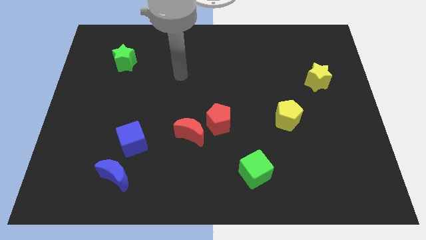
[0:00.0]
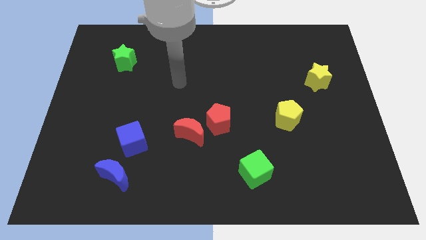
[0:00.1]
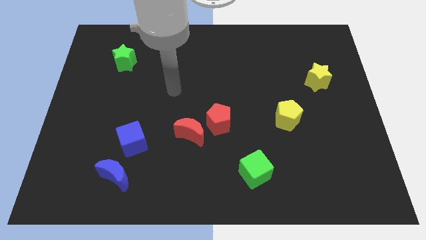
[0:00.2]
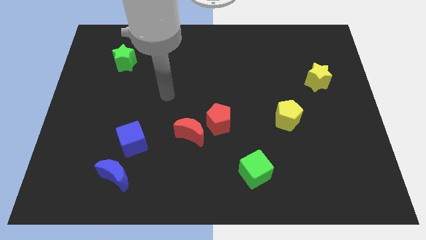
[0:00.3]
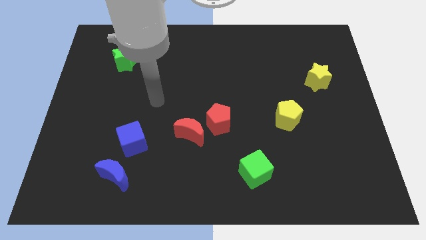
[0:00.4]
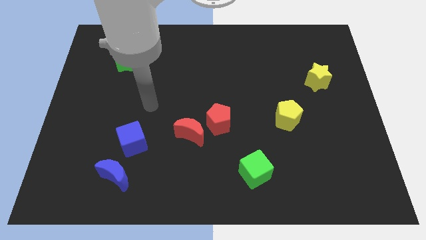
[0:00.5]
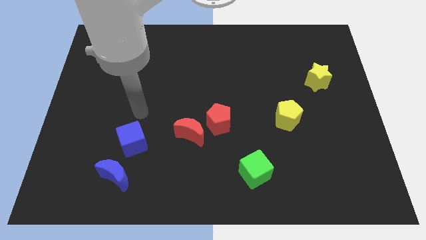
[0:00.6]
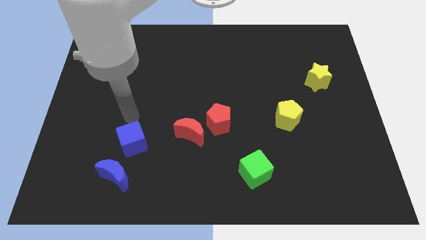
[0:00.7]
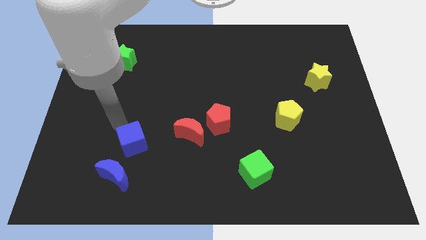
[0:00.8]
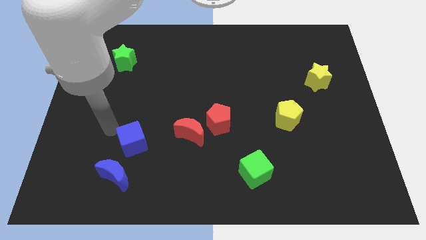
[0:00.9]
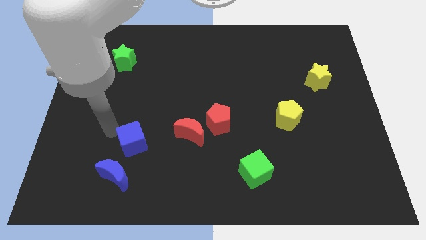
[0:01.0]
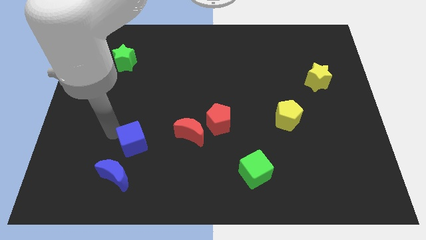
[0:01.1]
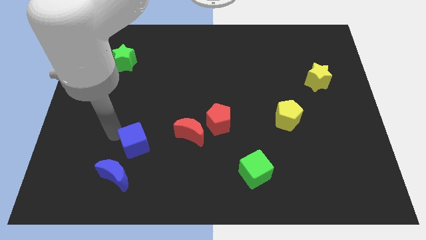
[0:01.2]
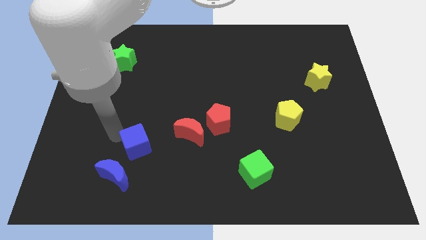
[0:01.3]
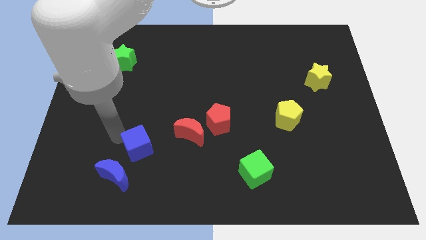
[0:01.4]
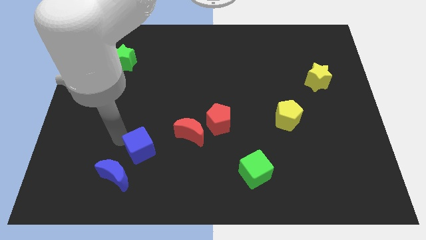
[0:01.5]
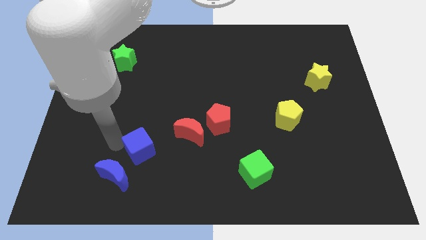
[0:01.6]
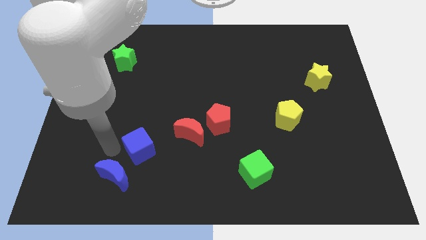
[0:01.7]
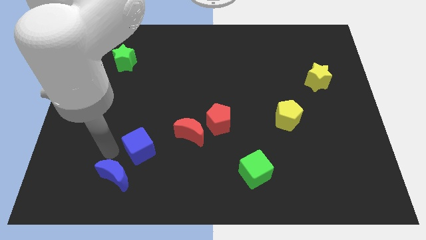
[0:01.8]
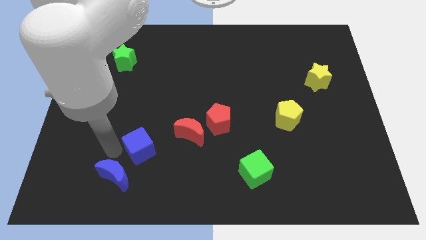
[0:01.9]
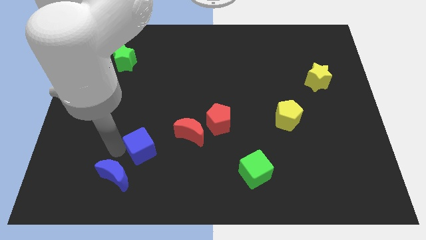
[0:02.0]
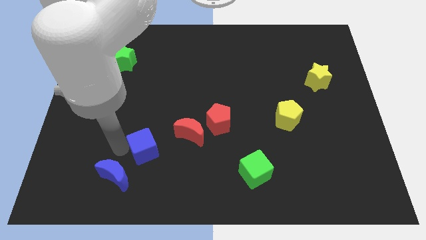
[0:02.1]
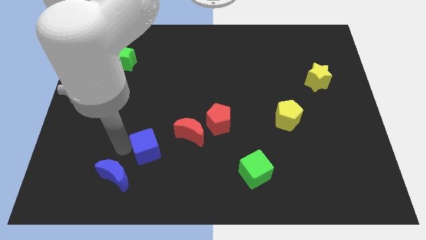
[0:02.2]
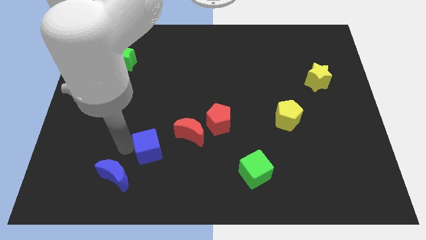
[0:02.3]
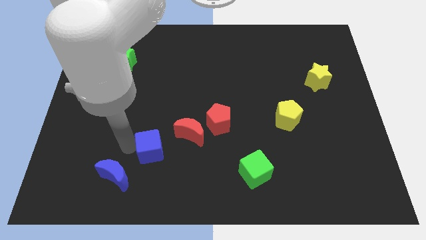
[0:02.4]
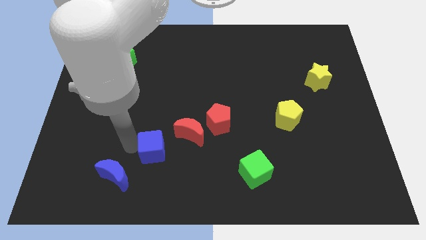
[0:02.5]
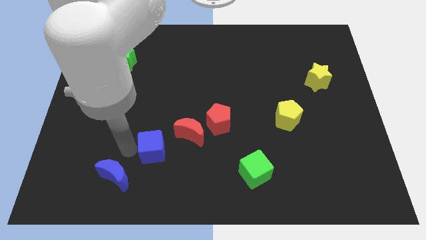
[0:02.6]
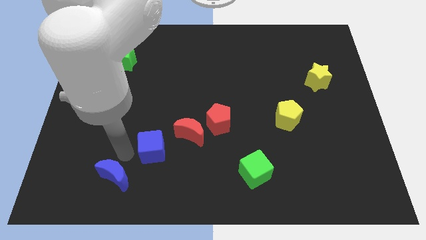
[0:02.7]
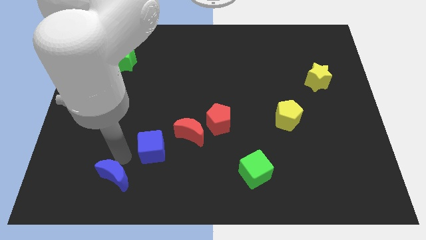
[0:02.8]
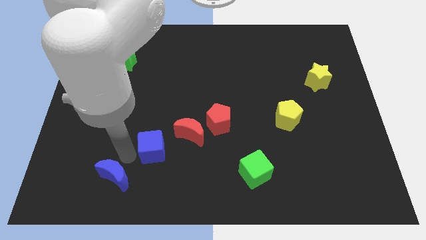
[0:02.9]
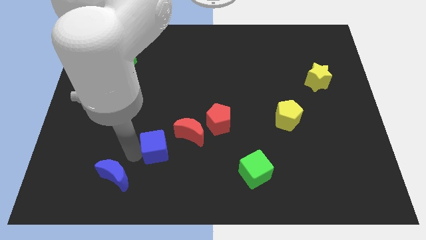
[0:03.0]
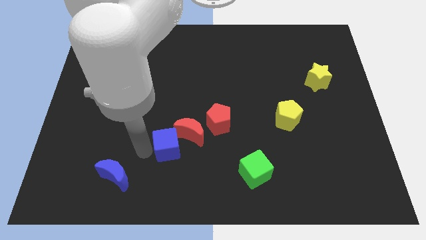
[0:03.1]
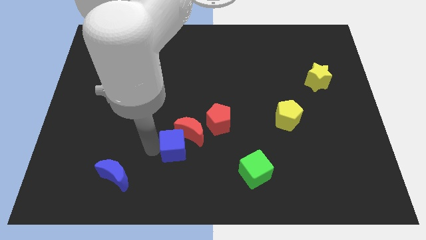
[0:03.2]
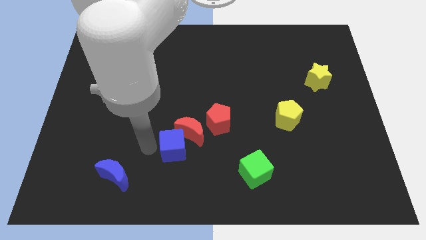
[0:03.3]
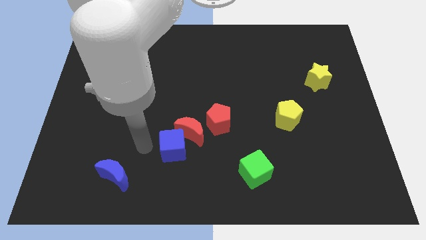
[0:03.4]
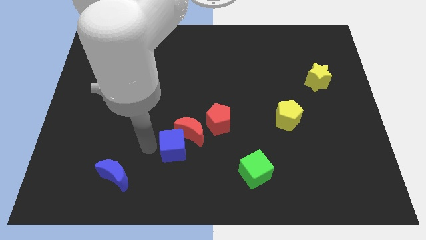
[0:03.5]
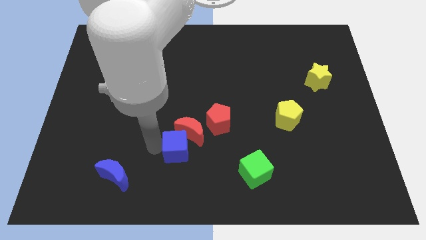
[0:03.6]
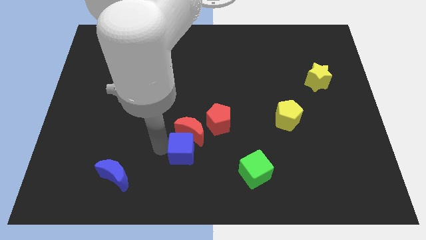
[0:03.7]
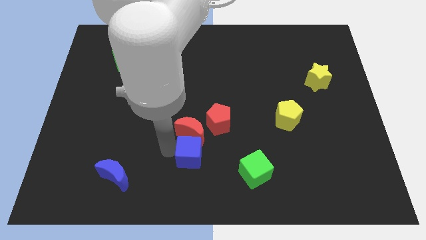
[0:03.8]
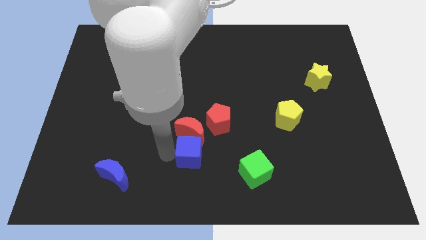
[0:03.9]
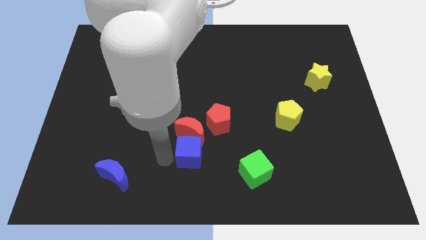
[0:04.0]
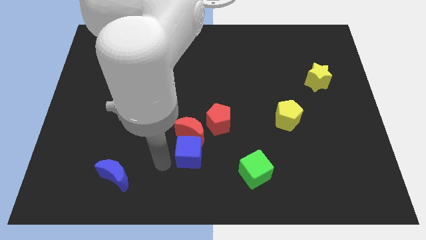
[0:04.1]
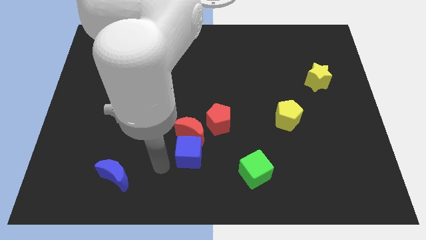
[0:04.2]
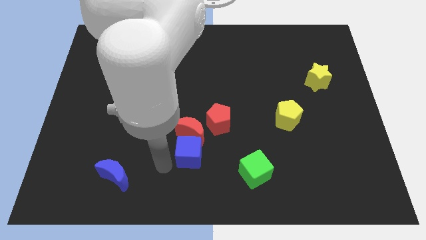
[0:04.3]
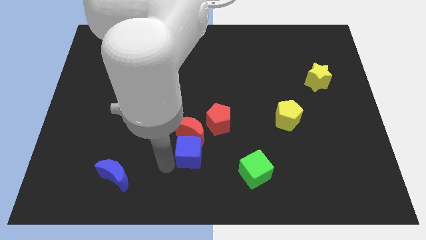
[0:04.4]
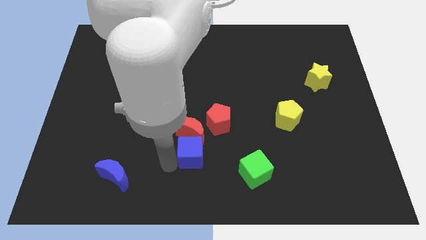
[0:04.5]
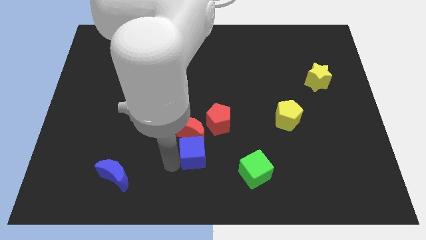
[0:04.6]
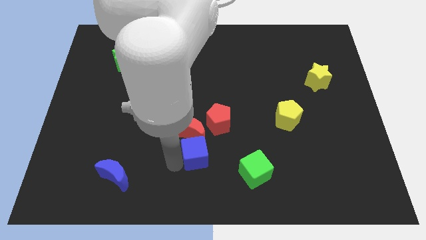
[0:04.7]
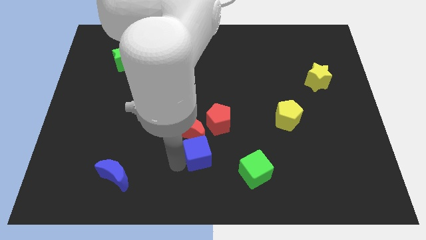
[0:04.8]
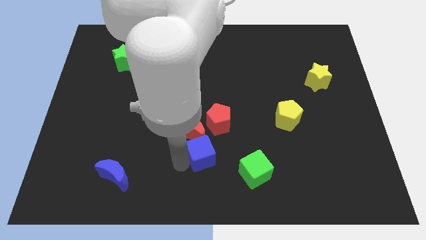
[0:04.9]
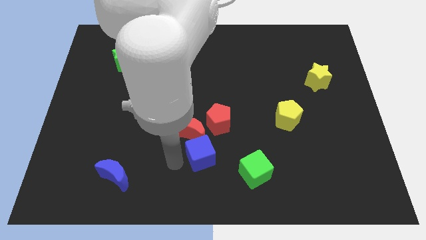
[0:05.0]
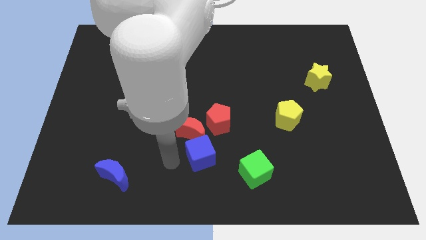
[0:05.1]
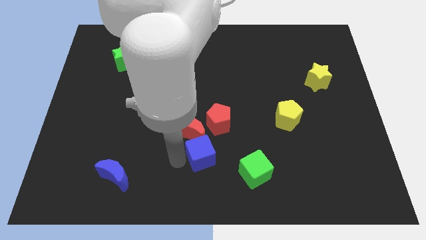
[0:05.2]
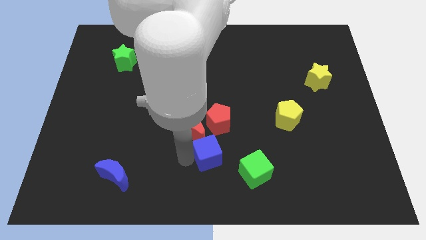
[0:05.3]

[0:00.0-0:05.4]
put the blue cube to the top left side of the green cube

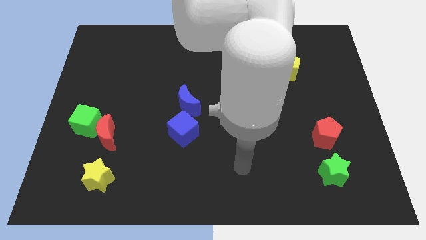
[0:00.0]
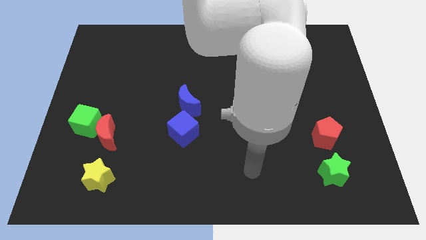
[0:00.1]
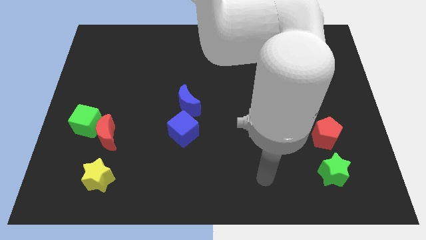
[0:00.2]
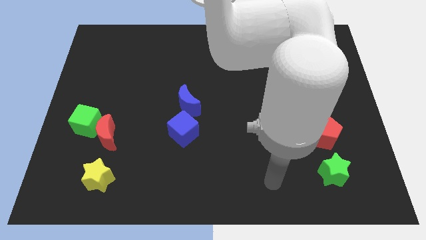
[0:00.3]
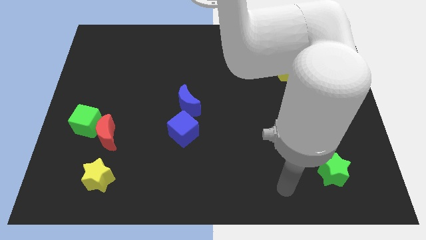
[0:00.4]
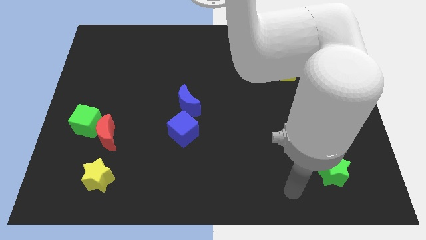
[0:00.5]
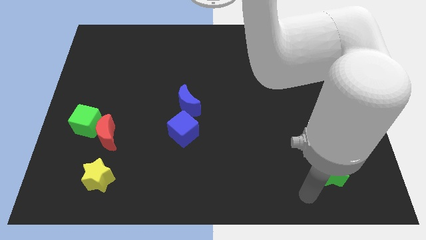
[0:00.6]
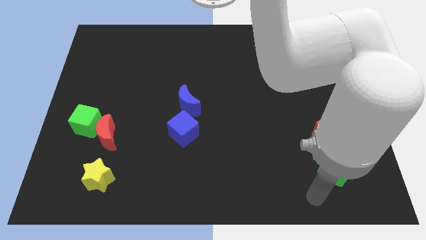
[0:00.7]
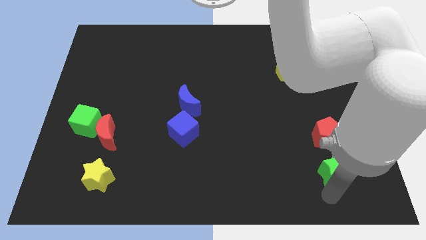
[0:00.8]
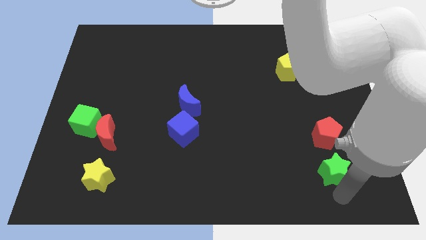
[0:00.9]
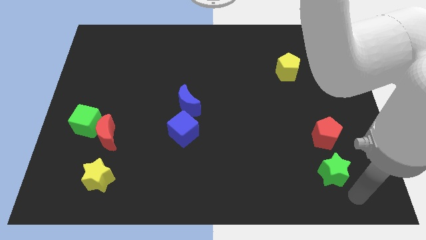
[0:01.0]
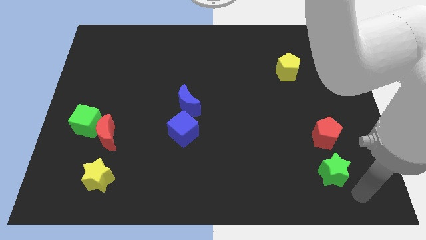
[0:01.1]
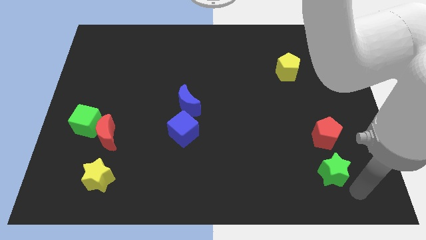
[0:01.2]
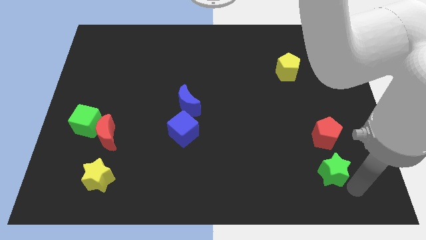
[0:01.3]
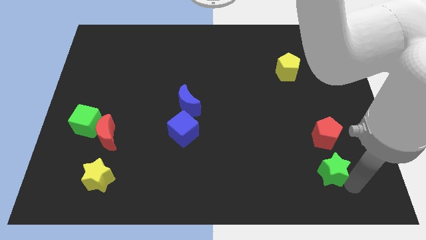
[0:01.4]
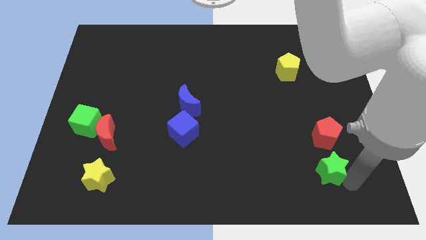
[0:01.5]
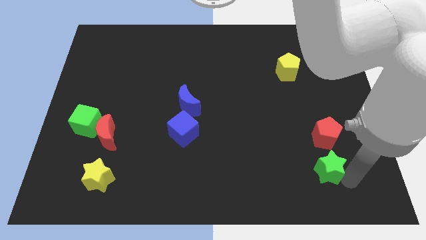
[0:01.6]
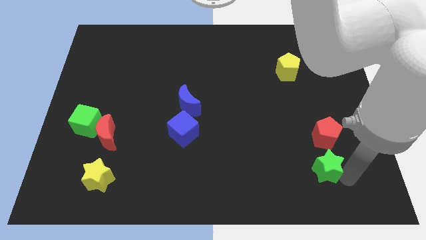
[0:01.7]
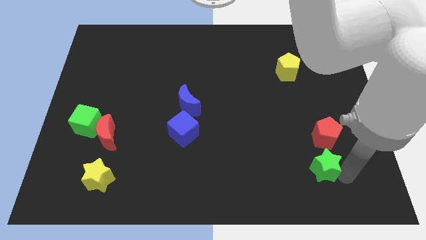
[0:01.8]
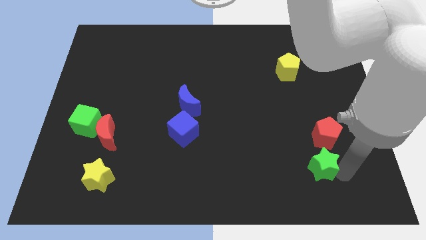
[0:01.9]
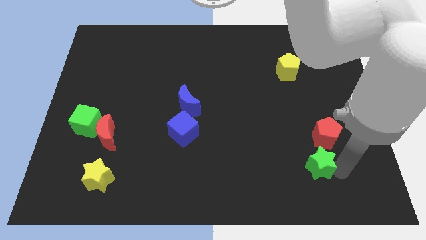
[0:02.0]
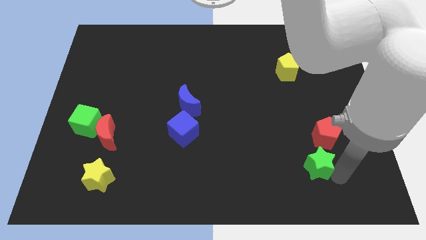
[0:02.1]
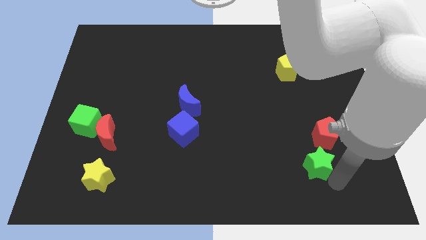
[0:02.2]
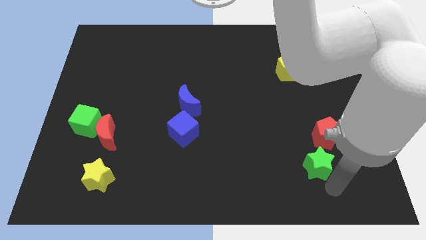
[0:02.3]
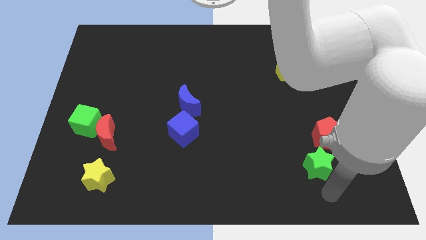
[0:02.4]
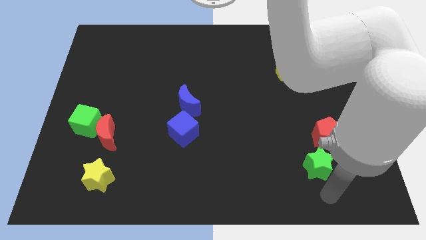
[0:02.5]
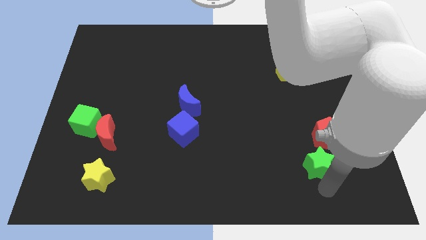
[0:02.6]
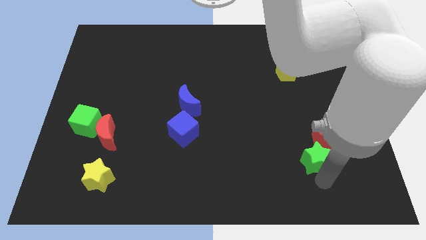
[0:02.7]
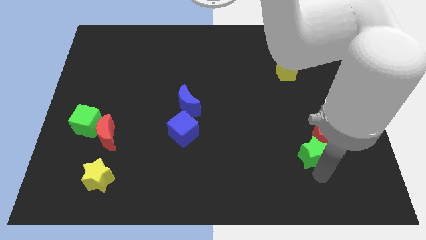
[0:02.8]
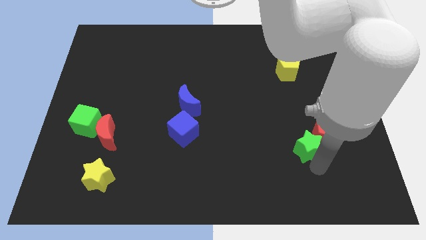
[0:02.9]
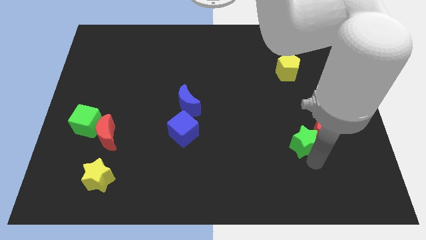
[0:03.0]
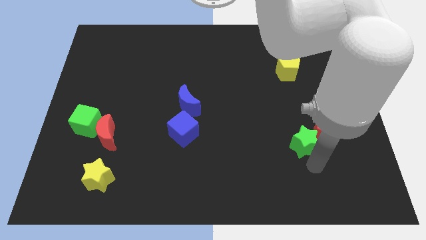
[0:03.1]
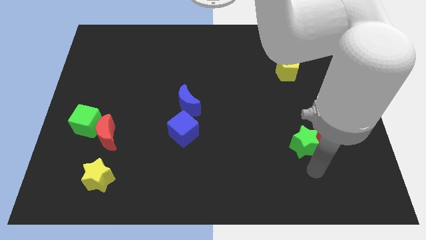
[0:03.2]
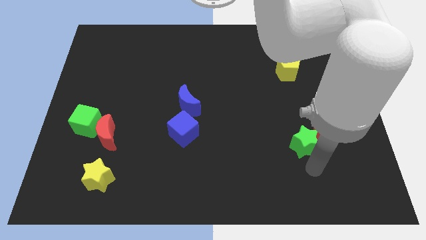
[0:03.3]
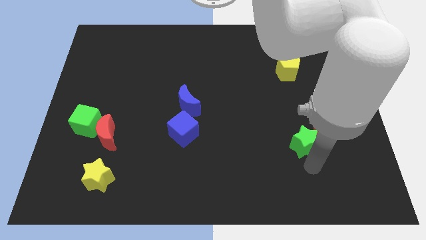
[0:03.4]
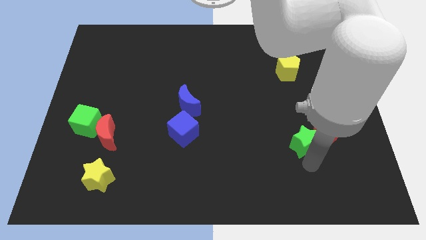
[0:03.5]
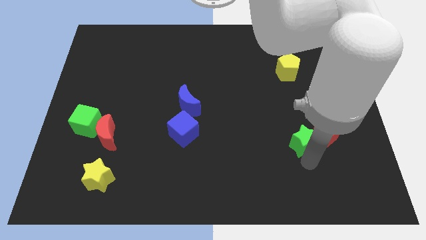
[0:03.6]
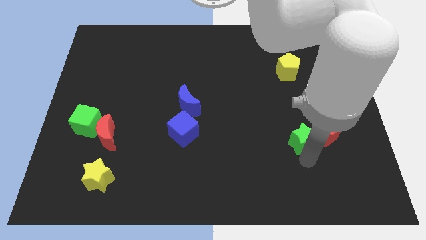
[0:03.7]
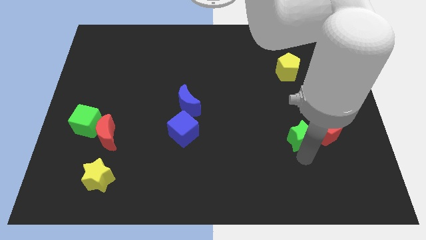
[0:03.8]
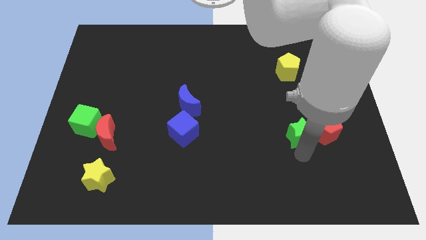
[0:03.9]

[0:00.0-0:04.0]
slide the green star diagonally up and to the left of the red pentagon
